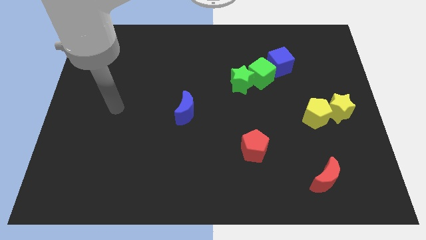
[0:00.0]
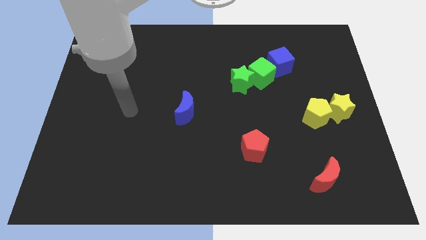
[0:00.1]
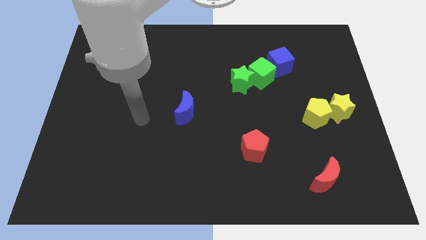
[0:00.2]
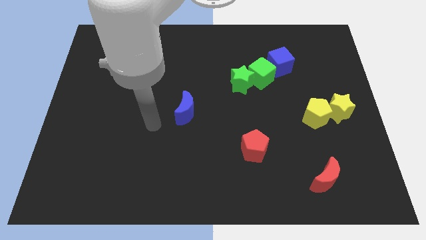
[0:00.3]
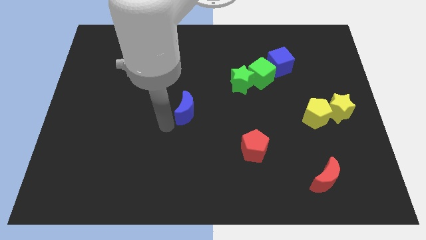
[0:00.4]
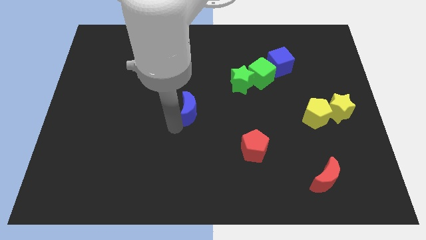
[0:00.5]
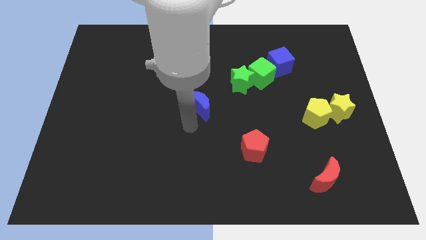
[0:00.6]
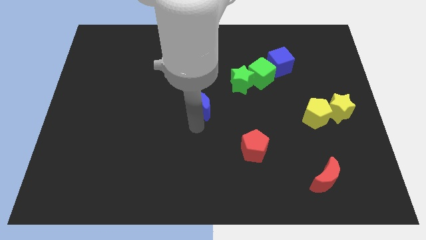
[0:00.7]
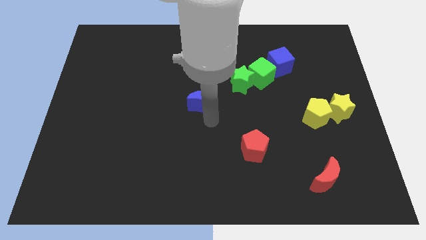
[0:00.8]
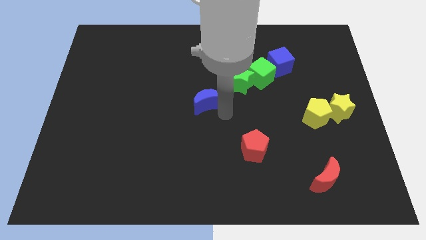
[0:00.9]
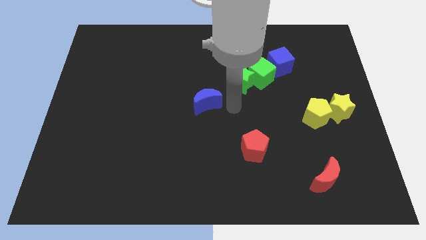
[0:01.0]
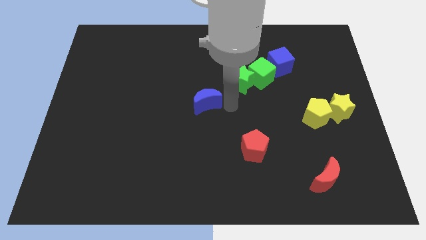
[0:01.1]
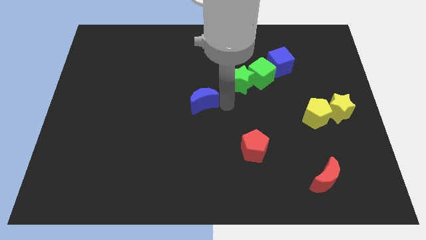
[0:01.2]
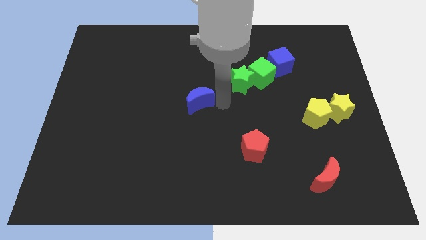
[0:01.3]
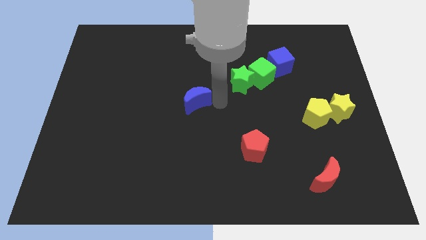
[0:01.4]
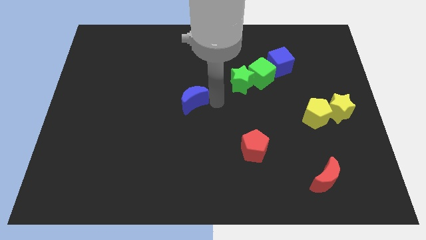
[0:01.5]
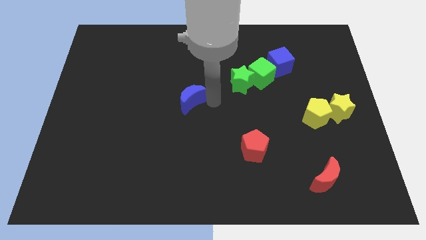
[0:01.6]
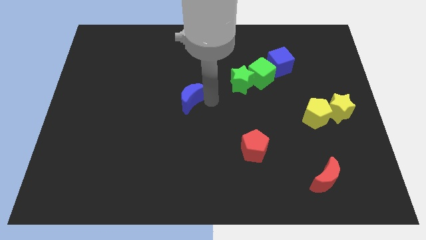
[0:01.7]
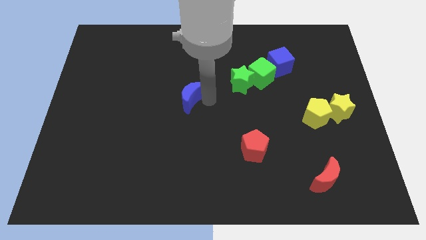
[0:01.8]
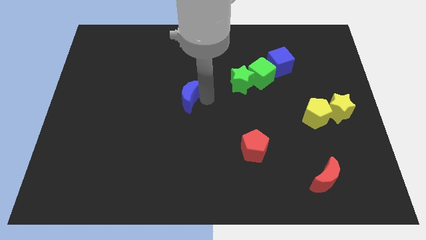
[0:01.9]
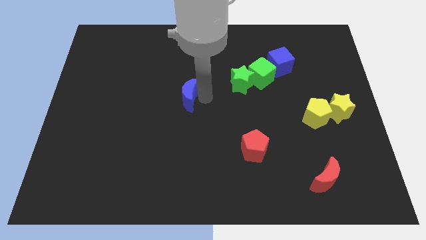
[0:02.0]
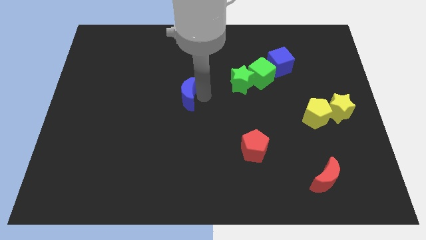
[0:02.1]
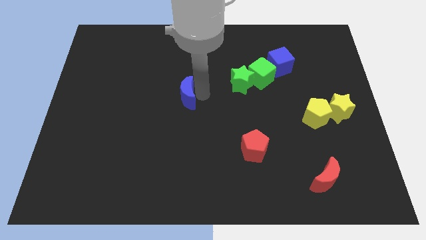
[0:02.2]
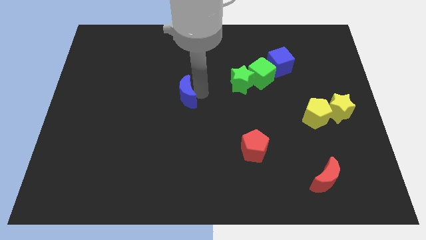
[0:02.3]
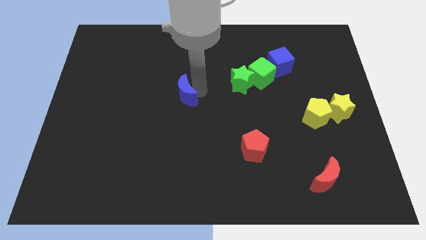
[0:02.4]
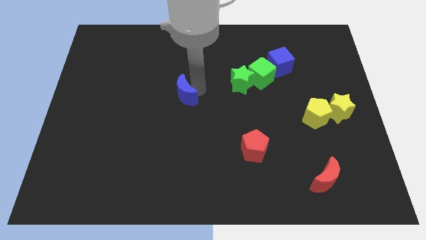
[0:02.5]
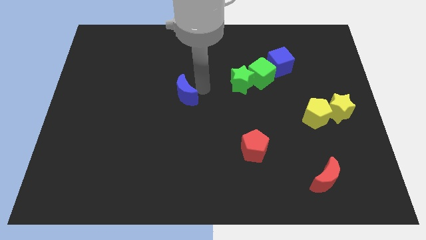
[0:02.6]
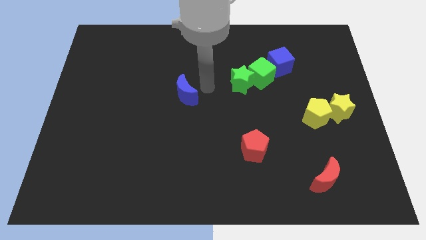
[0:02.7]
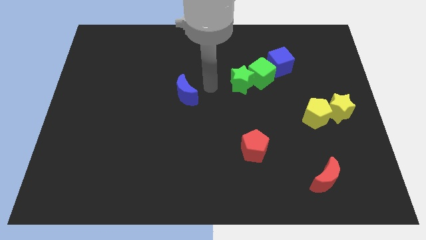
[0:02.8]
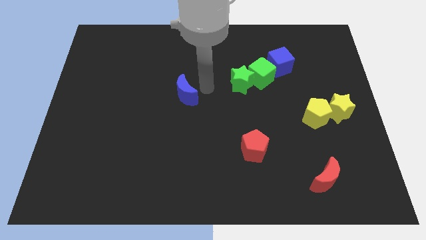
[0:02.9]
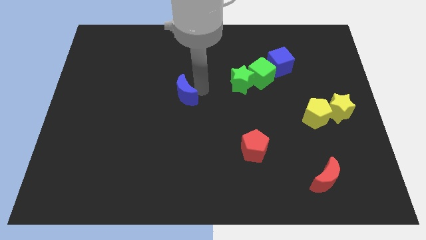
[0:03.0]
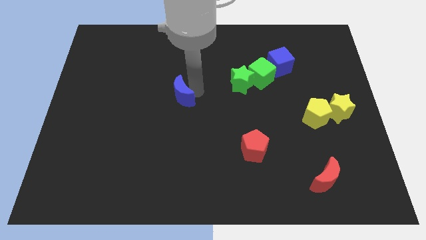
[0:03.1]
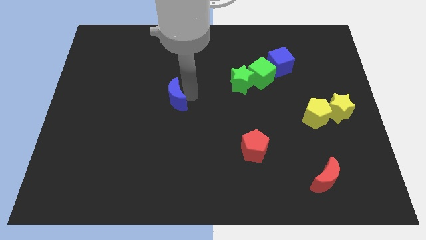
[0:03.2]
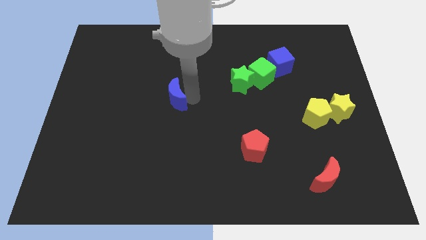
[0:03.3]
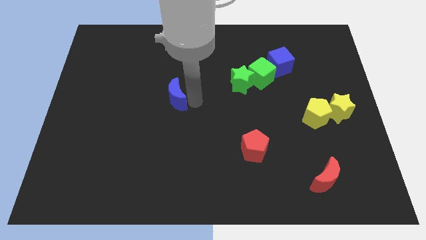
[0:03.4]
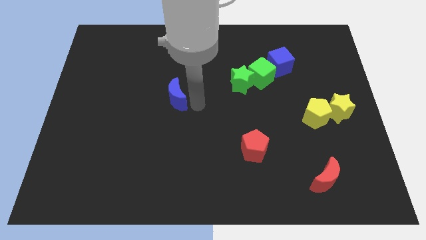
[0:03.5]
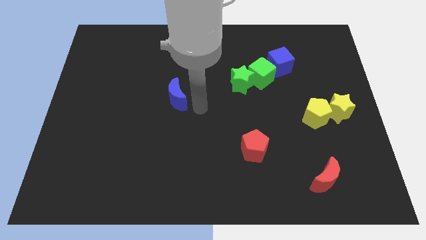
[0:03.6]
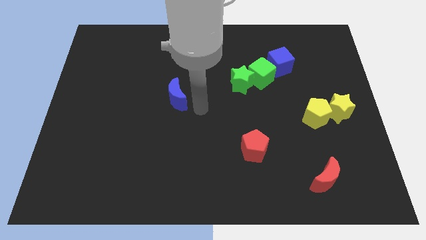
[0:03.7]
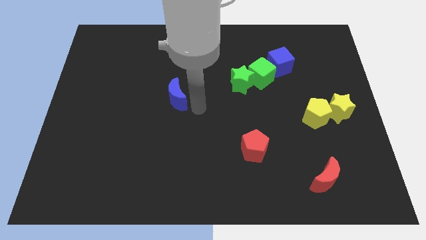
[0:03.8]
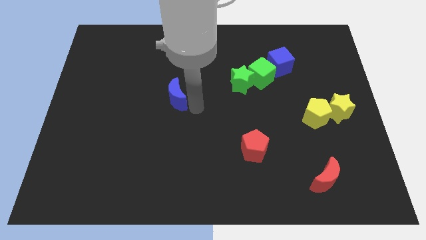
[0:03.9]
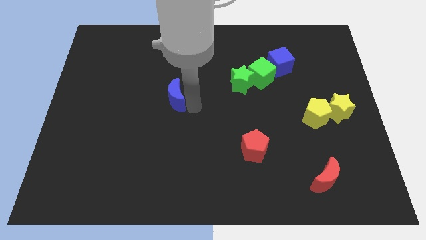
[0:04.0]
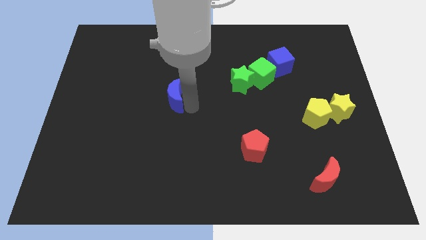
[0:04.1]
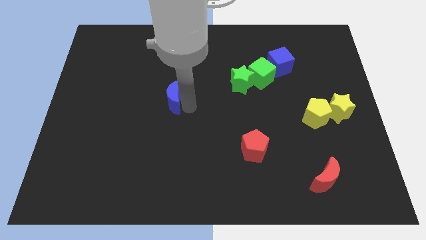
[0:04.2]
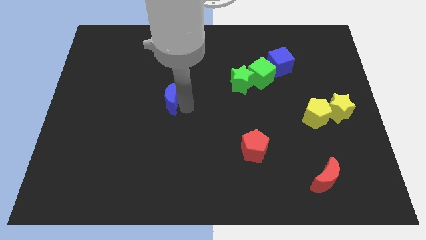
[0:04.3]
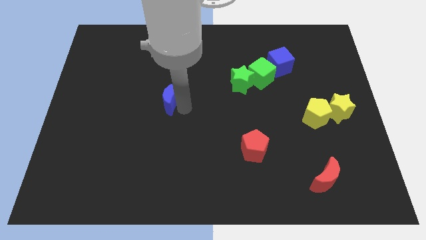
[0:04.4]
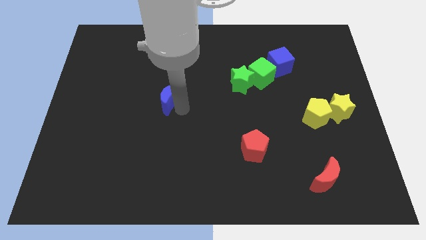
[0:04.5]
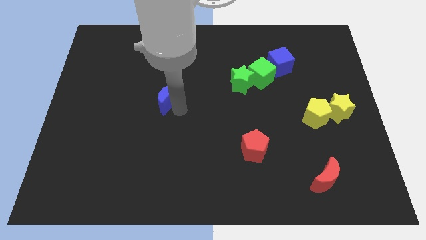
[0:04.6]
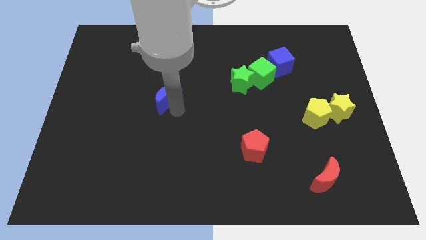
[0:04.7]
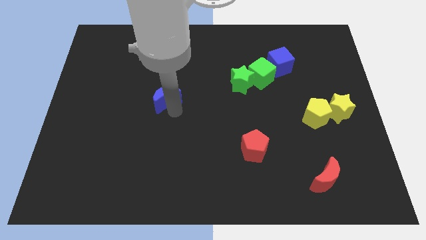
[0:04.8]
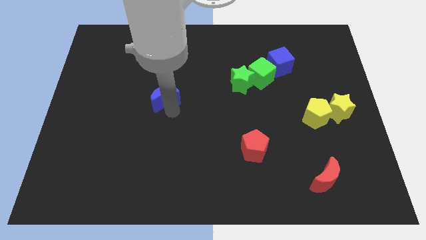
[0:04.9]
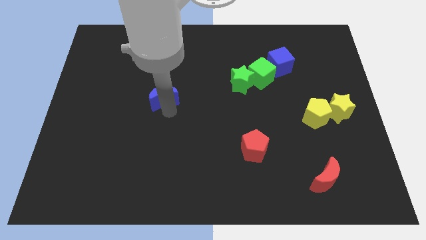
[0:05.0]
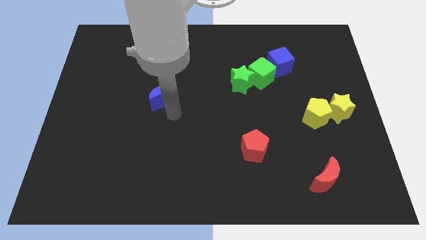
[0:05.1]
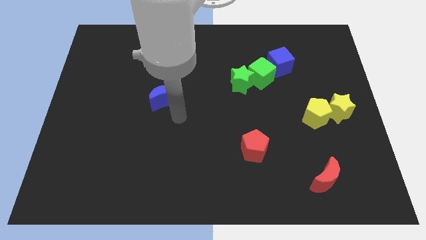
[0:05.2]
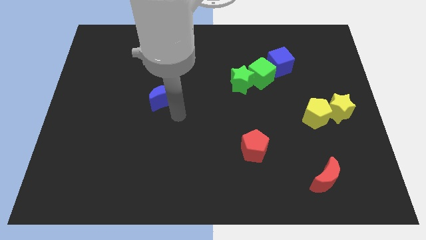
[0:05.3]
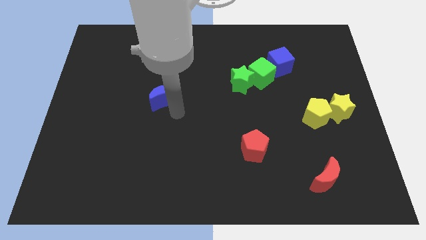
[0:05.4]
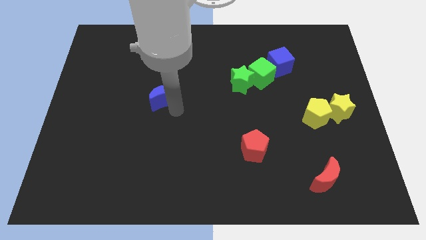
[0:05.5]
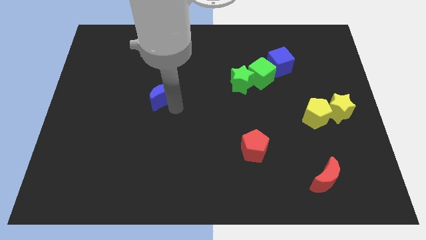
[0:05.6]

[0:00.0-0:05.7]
move the blue moon upwards and then to the left slightly

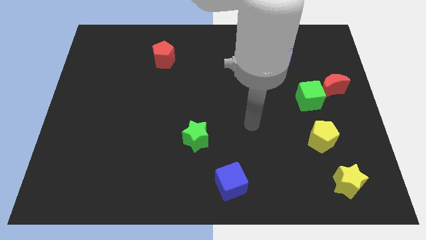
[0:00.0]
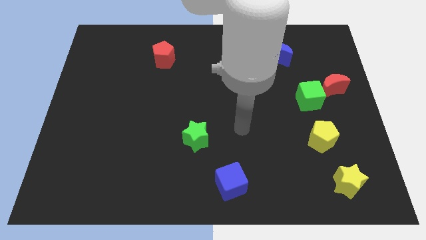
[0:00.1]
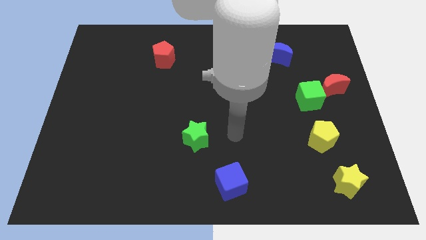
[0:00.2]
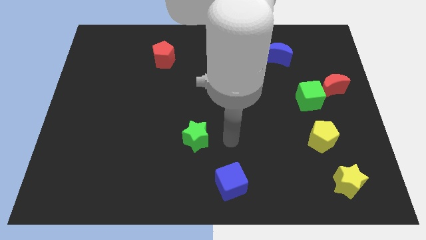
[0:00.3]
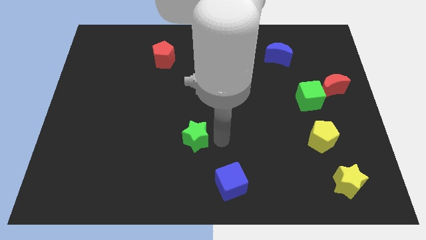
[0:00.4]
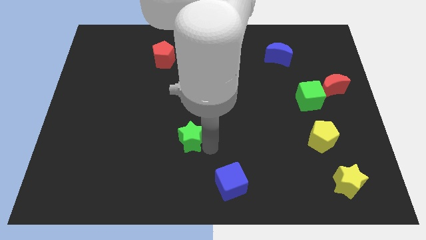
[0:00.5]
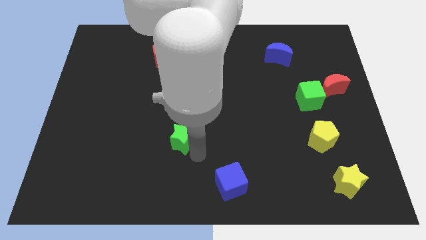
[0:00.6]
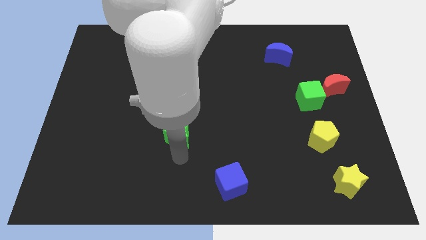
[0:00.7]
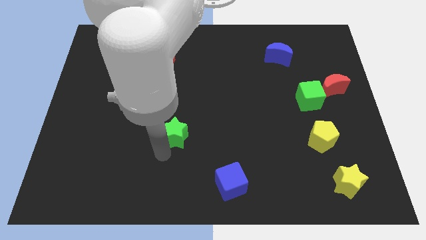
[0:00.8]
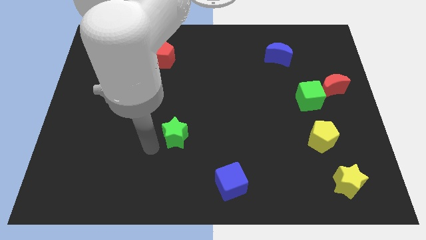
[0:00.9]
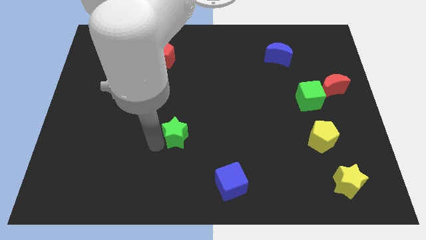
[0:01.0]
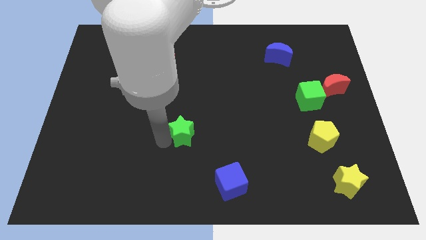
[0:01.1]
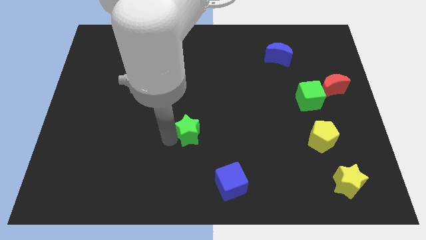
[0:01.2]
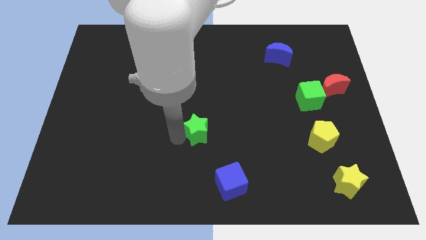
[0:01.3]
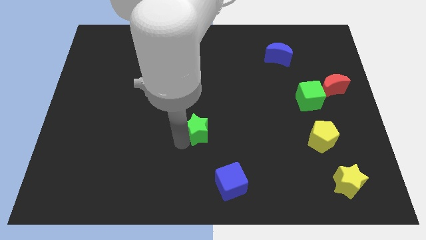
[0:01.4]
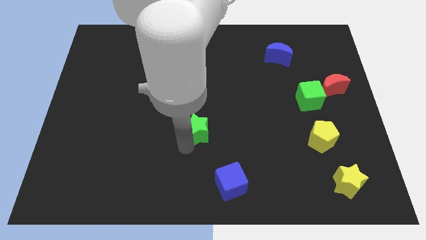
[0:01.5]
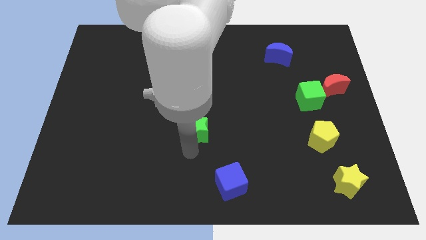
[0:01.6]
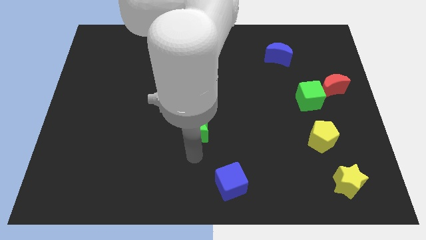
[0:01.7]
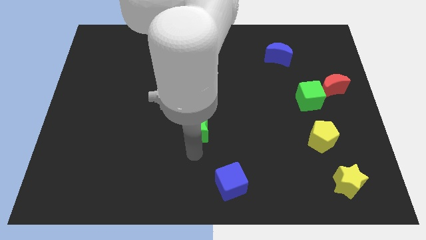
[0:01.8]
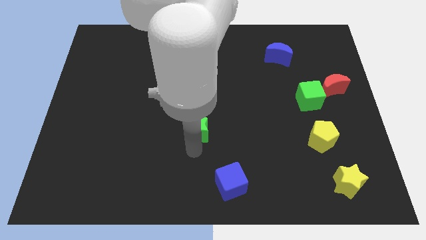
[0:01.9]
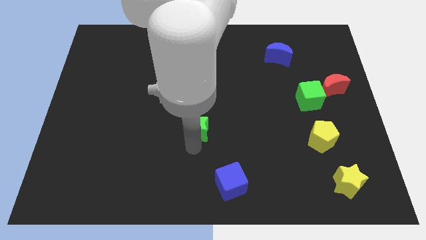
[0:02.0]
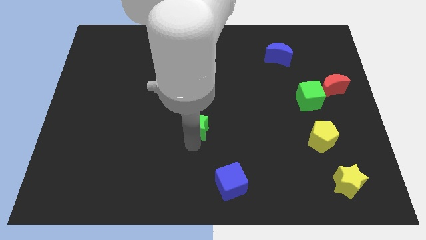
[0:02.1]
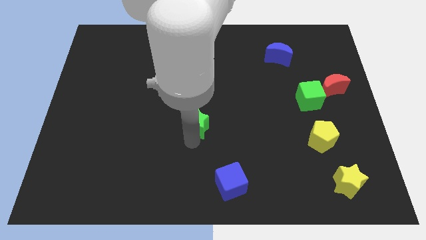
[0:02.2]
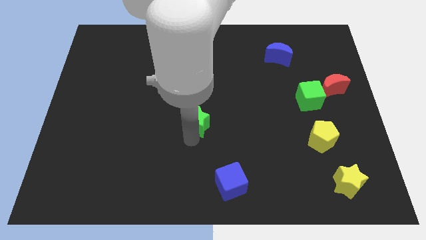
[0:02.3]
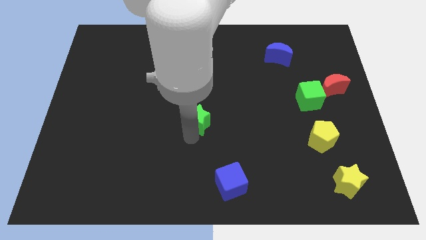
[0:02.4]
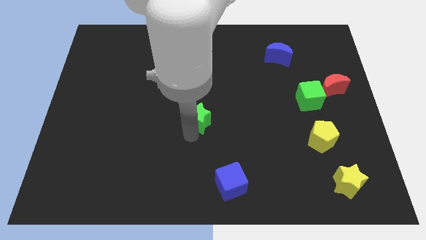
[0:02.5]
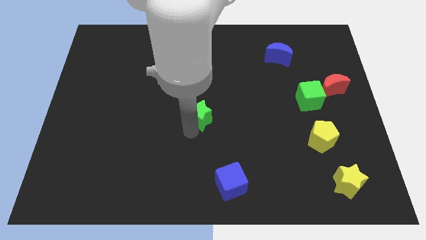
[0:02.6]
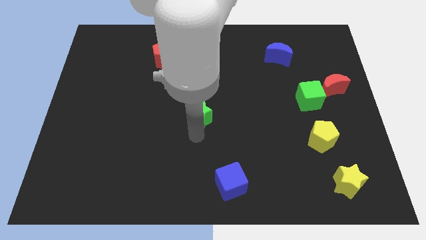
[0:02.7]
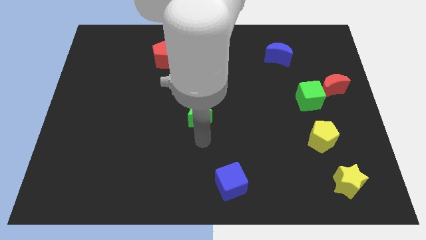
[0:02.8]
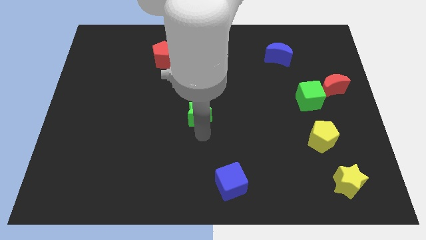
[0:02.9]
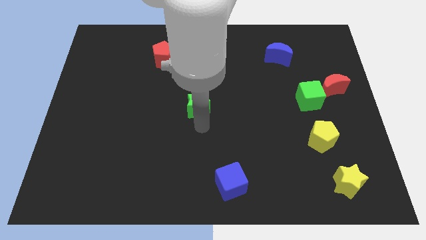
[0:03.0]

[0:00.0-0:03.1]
push the green star upwards a little bit
